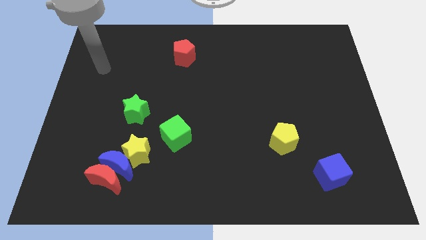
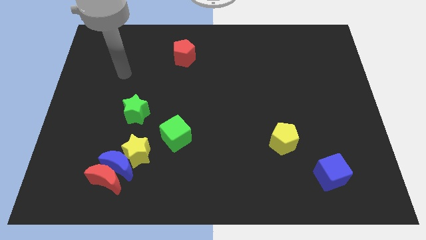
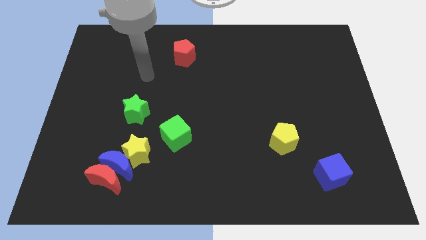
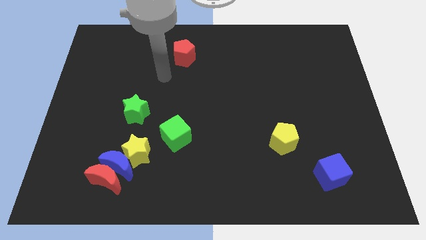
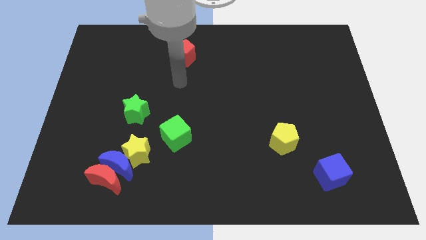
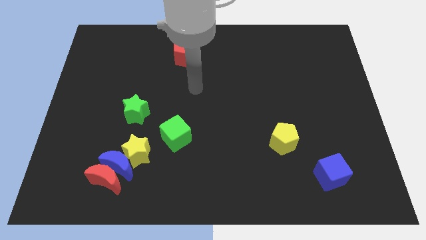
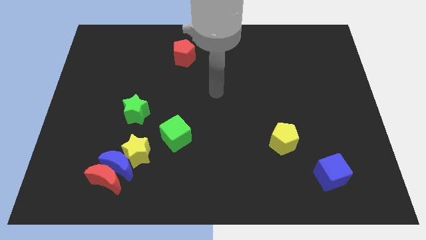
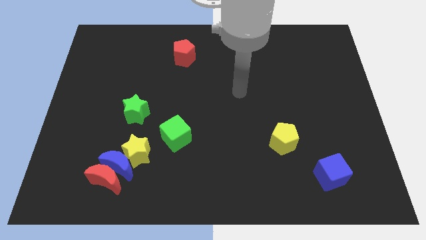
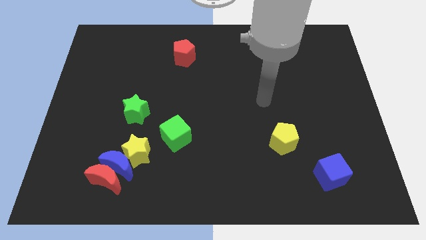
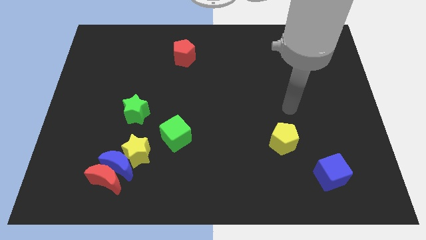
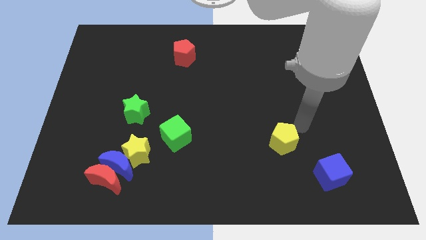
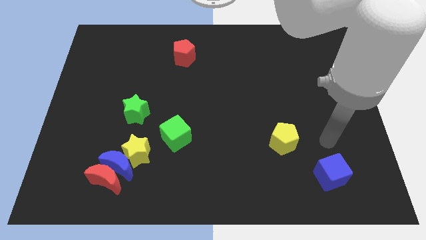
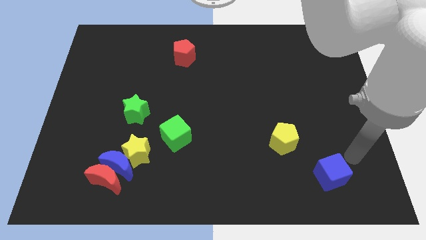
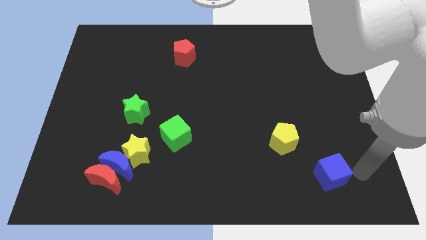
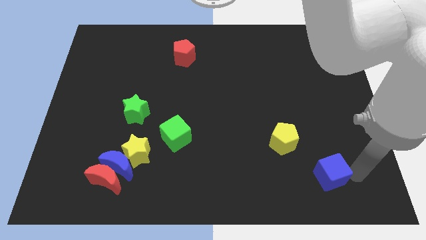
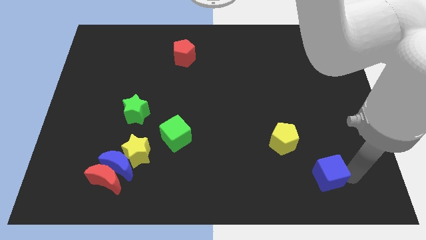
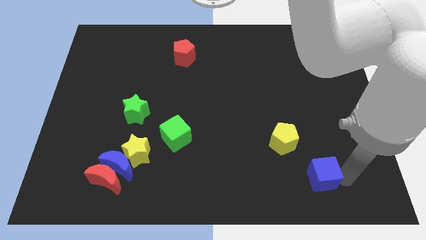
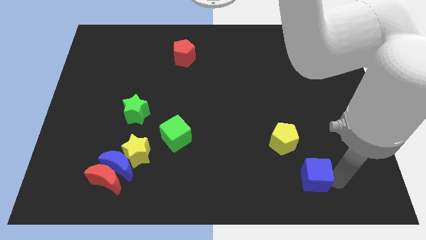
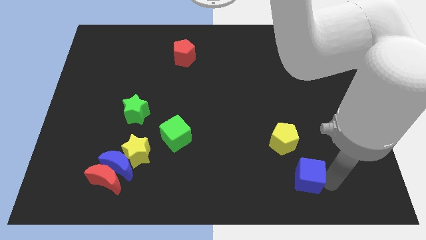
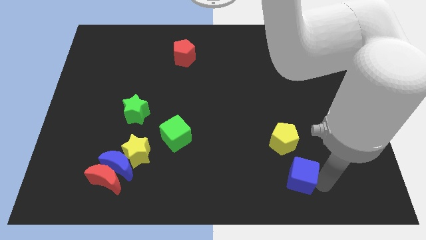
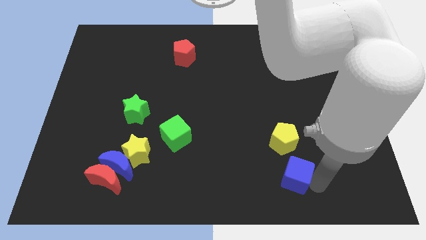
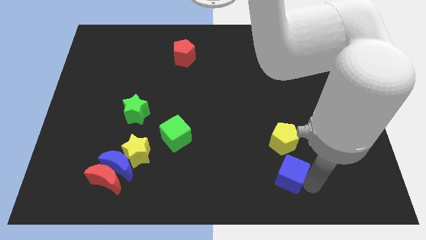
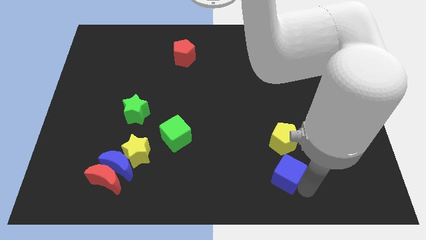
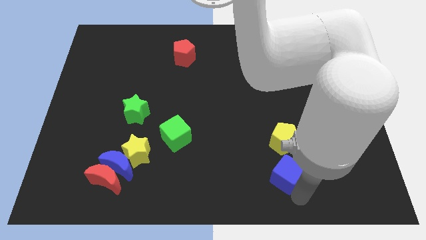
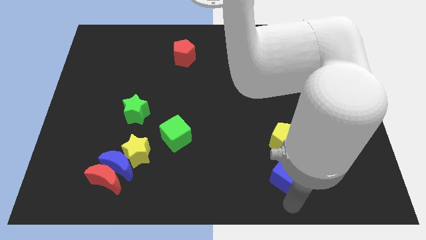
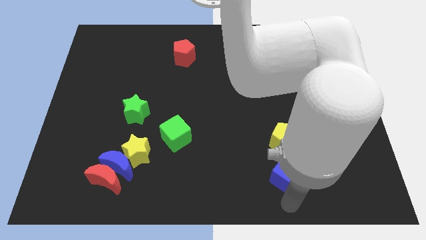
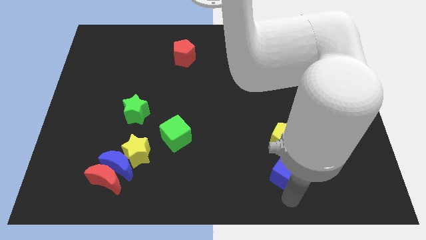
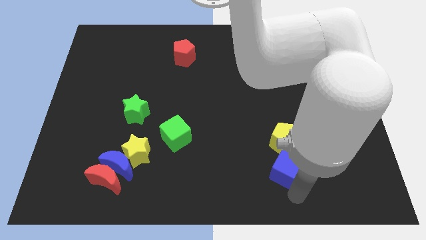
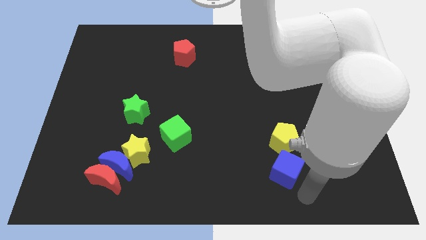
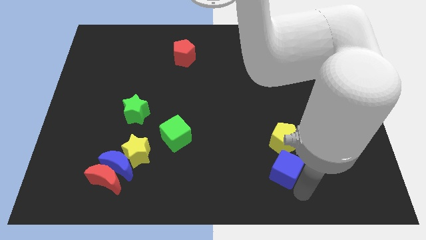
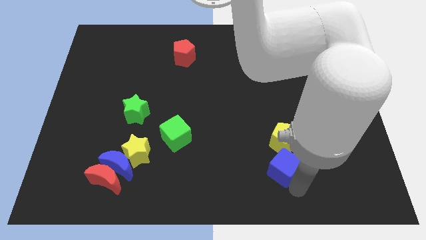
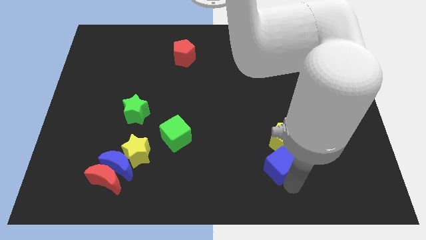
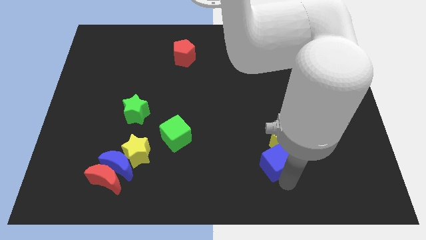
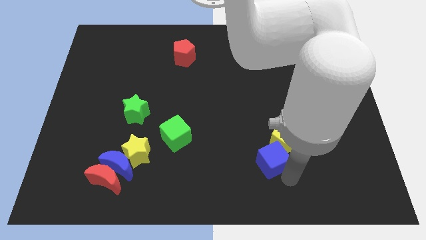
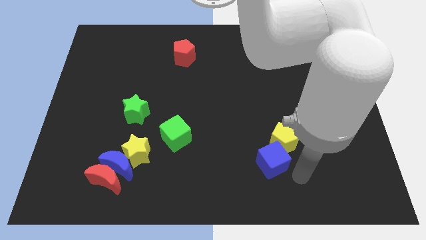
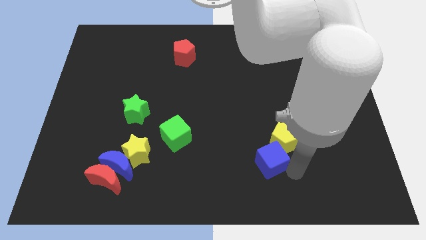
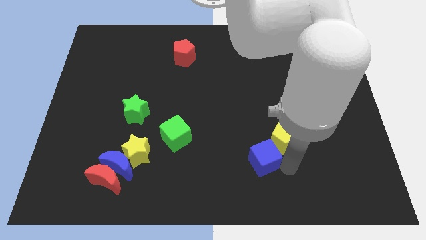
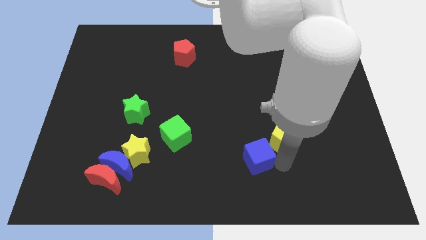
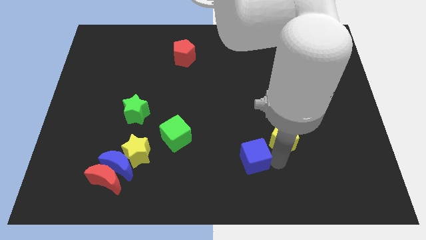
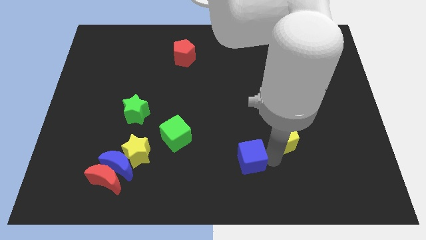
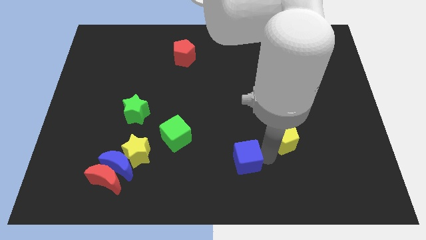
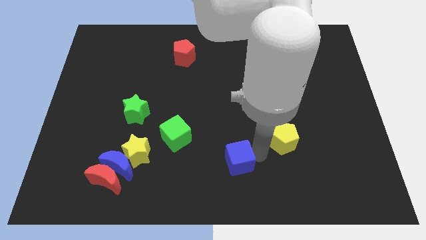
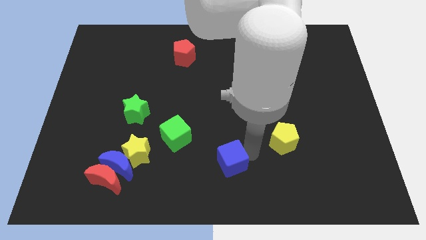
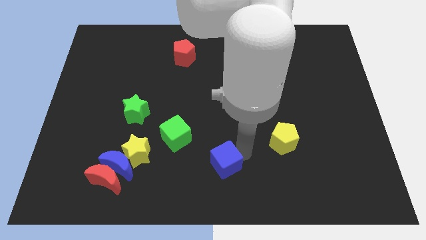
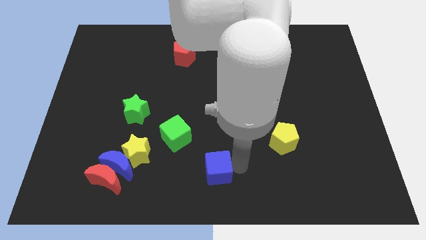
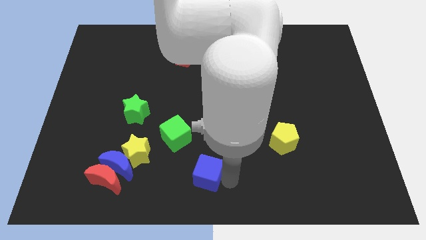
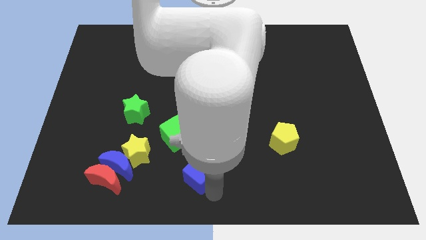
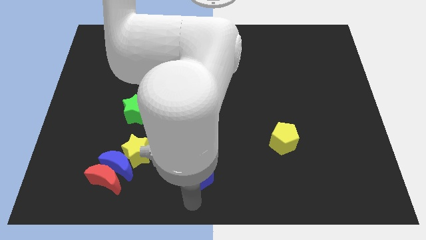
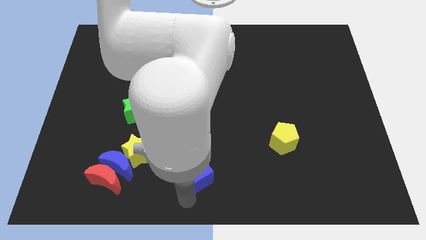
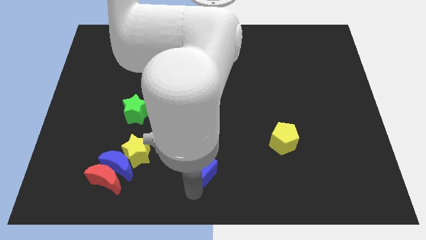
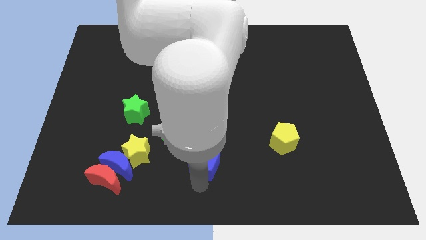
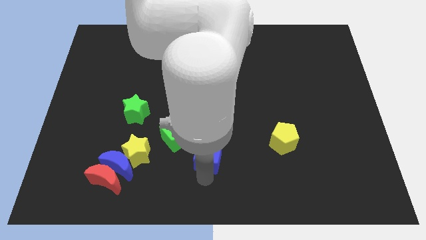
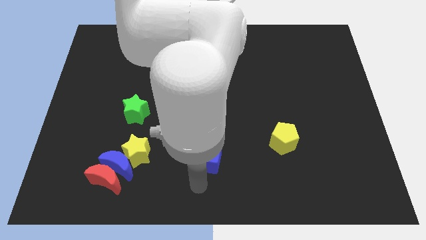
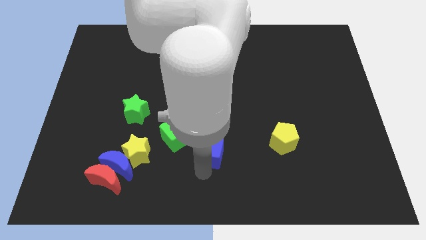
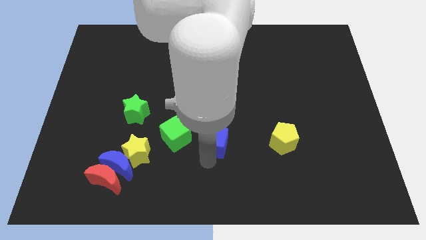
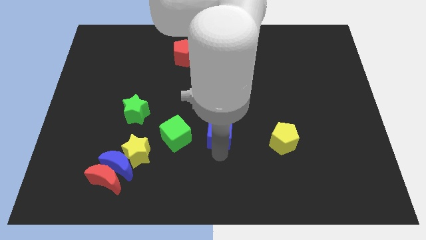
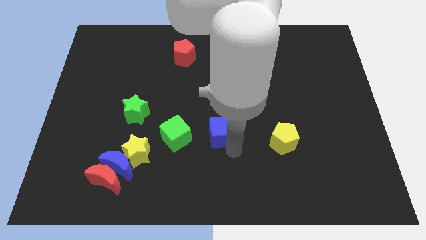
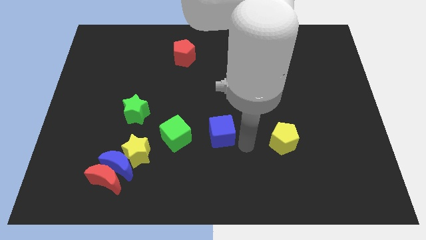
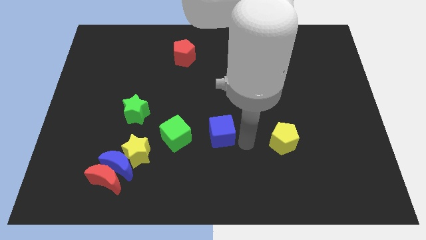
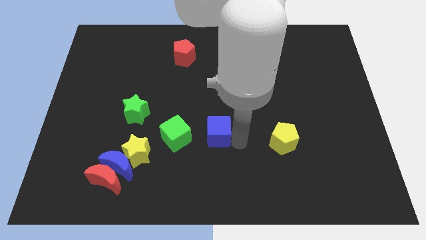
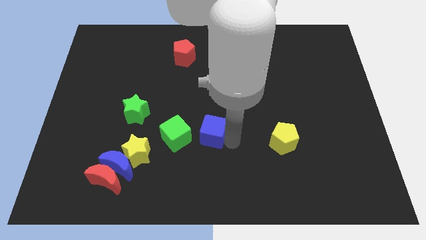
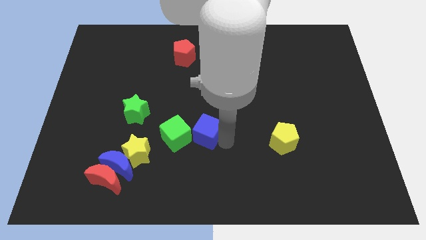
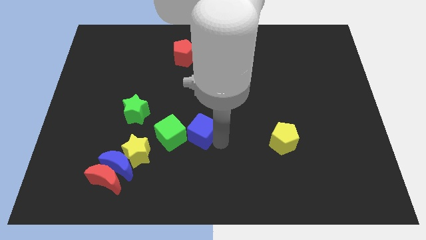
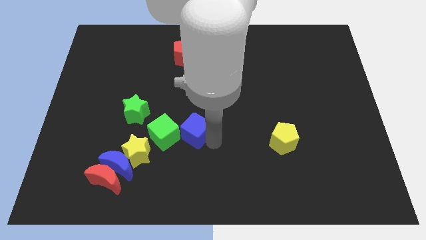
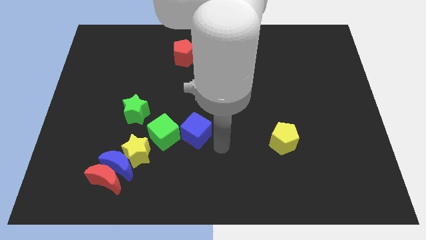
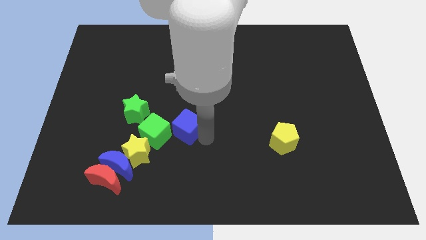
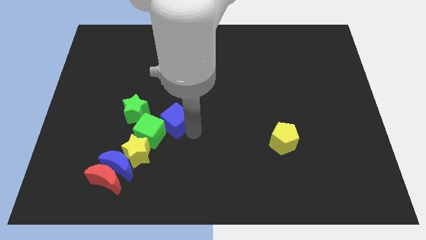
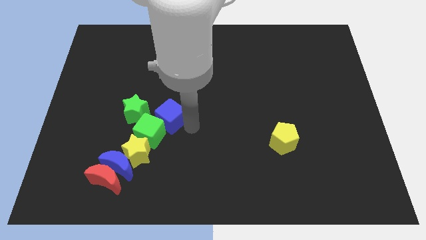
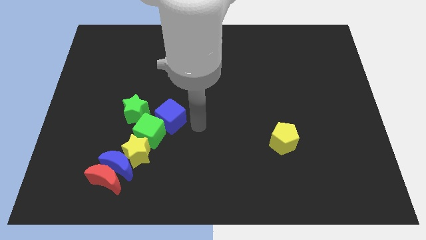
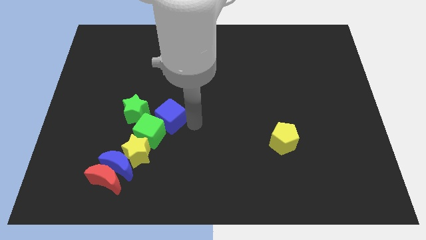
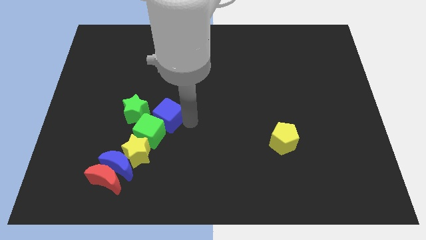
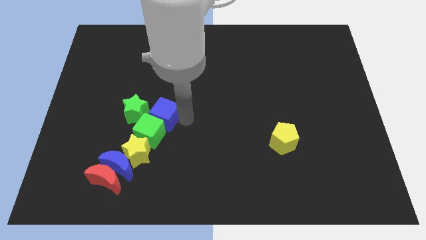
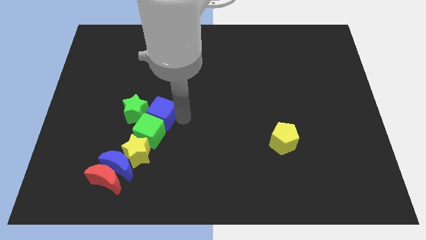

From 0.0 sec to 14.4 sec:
move the blue cube next to the green star
